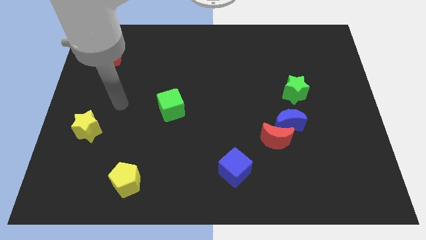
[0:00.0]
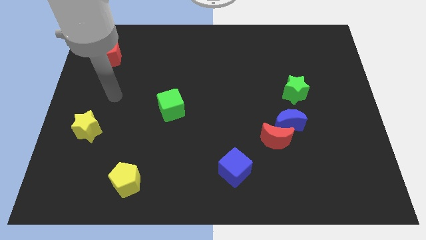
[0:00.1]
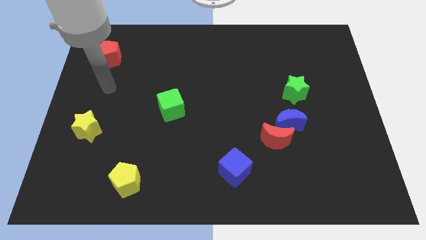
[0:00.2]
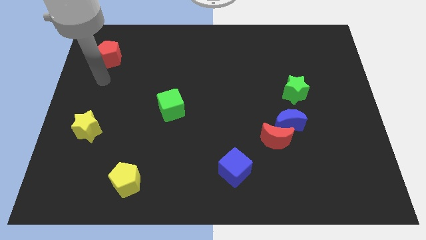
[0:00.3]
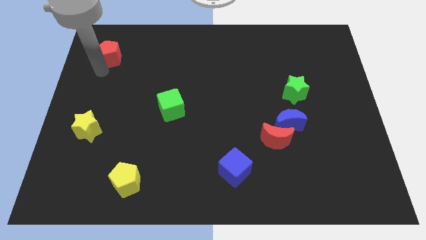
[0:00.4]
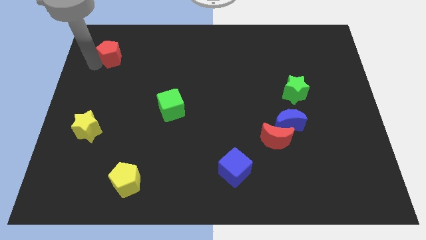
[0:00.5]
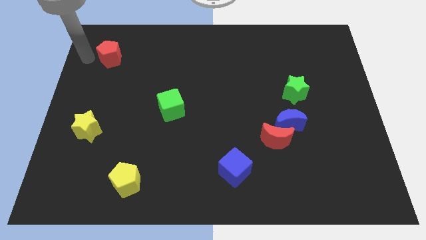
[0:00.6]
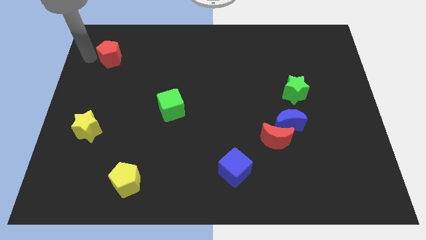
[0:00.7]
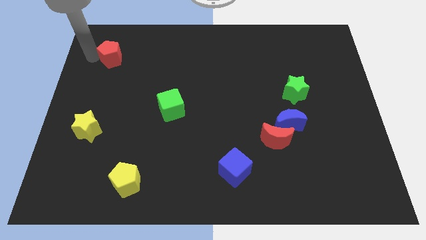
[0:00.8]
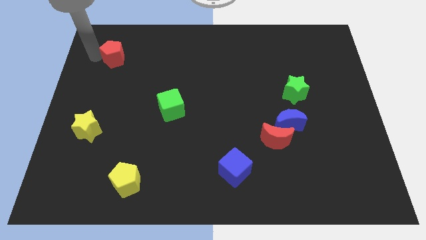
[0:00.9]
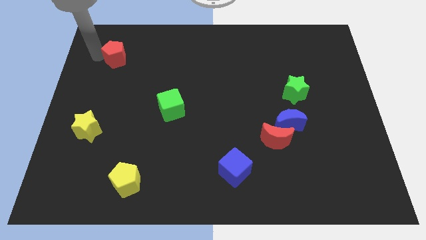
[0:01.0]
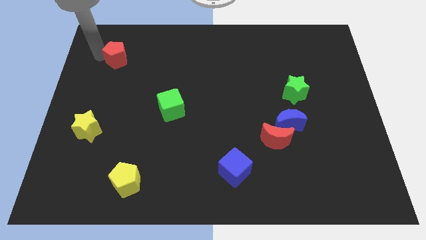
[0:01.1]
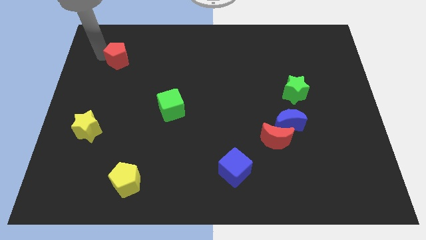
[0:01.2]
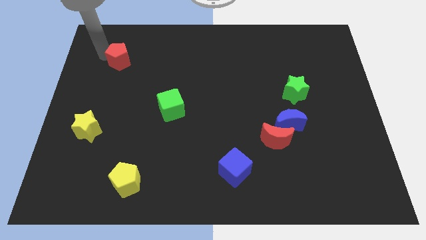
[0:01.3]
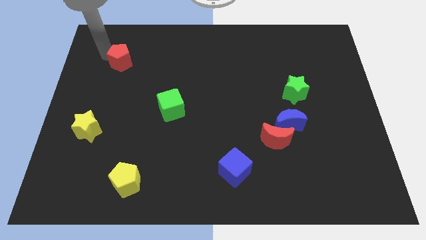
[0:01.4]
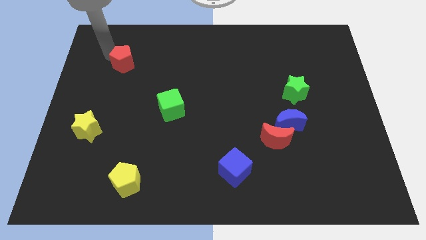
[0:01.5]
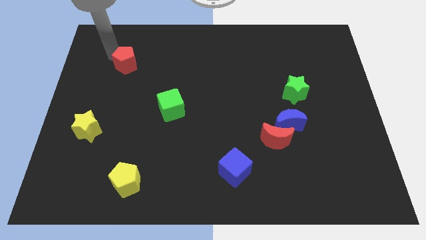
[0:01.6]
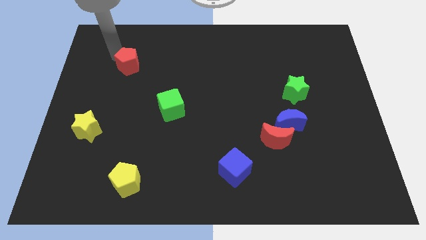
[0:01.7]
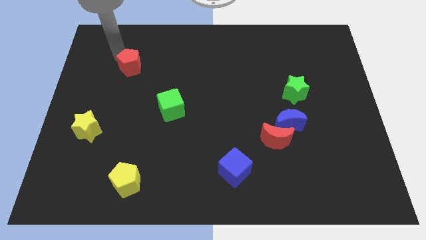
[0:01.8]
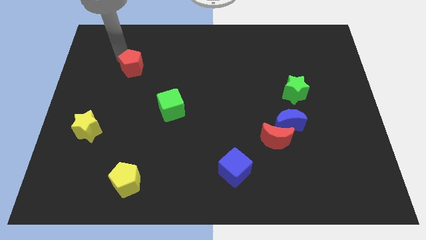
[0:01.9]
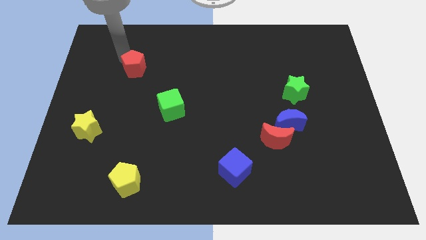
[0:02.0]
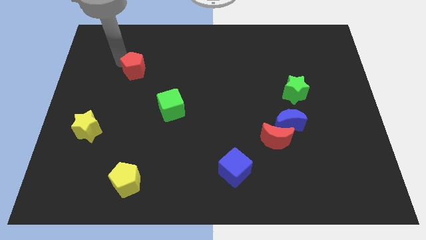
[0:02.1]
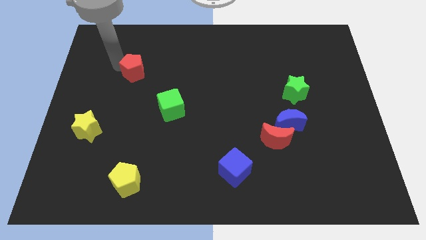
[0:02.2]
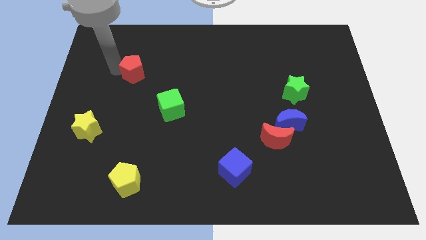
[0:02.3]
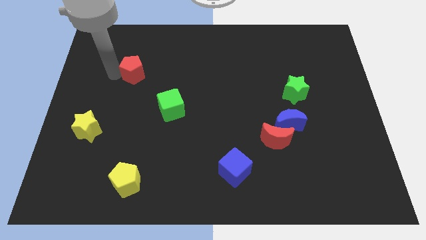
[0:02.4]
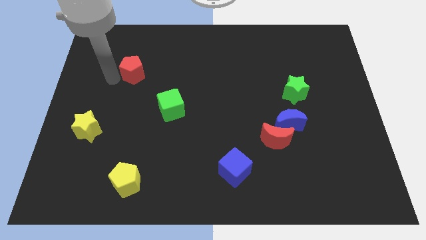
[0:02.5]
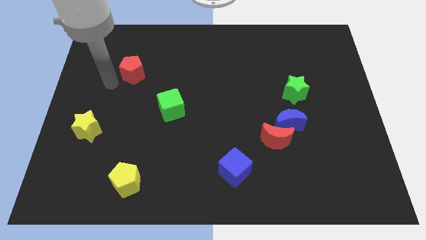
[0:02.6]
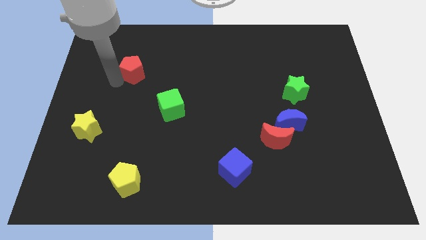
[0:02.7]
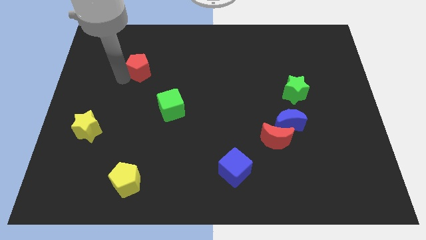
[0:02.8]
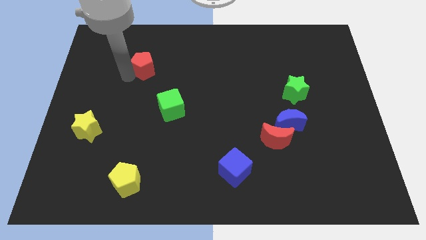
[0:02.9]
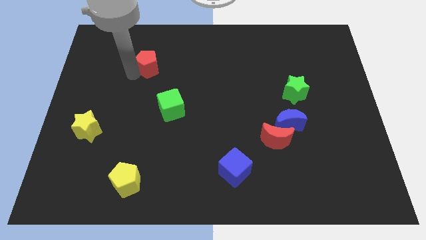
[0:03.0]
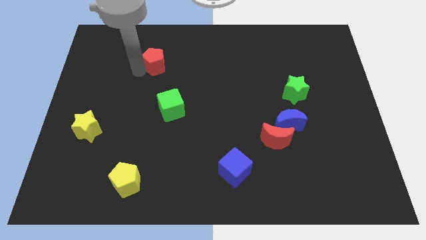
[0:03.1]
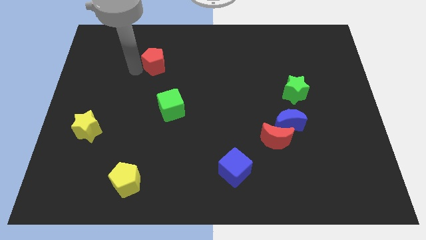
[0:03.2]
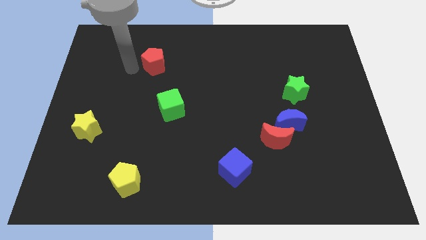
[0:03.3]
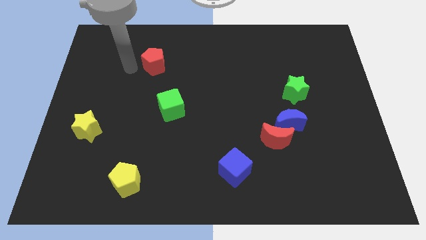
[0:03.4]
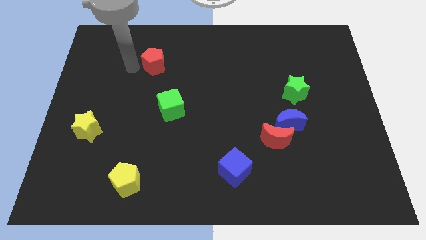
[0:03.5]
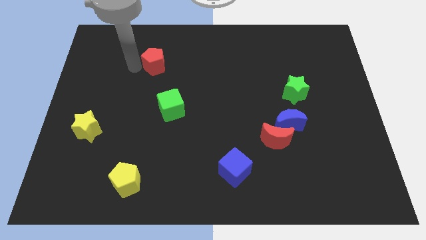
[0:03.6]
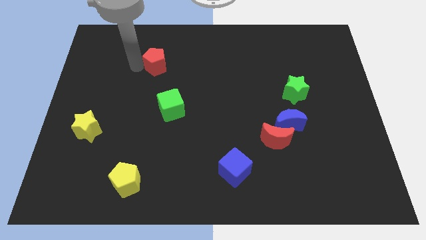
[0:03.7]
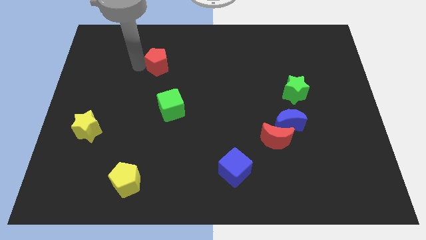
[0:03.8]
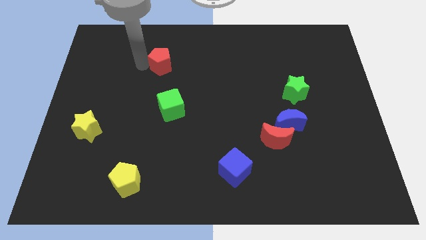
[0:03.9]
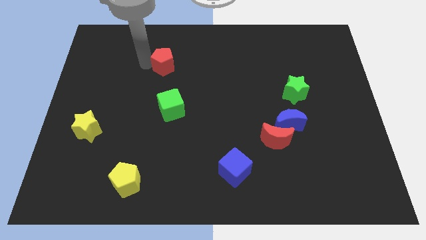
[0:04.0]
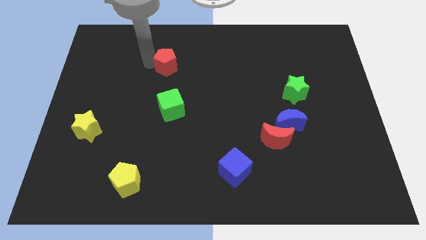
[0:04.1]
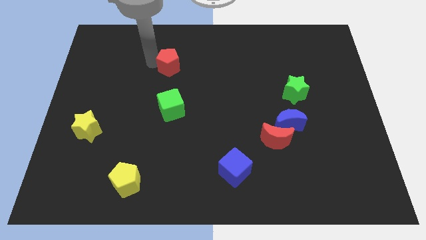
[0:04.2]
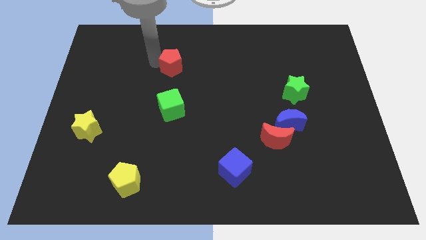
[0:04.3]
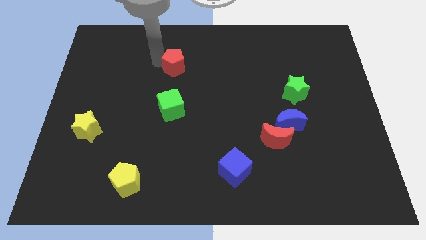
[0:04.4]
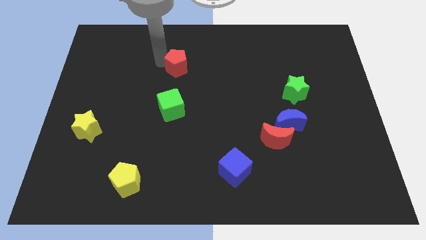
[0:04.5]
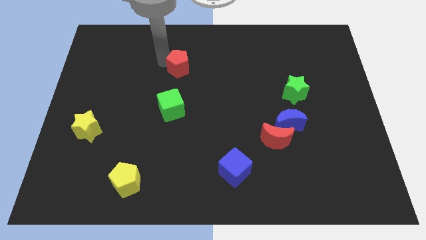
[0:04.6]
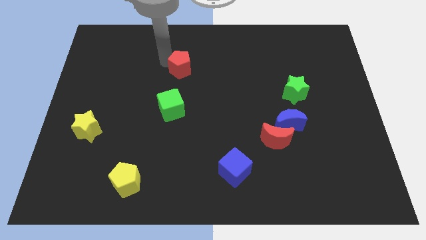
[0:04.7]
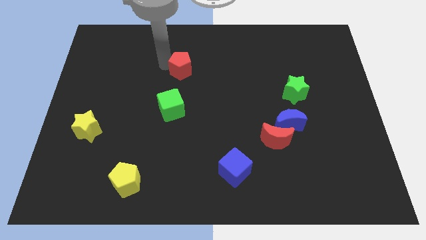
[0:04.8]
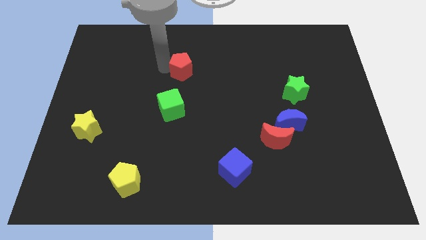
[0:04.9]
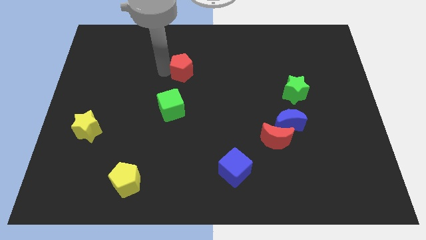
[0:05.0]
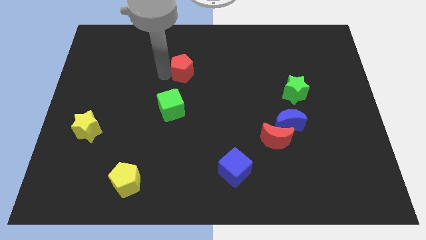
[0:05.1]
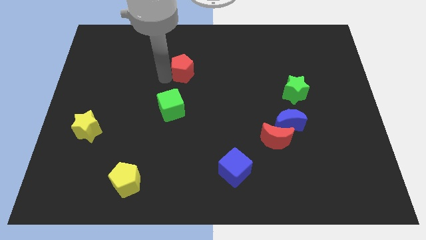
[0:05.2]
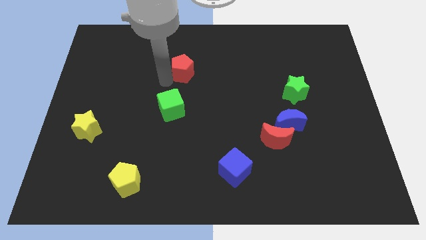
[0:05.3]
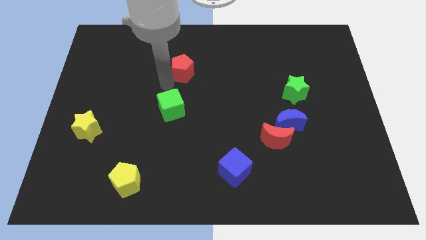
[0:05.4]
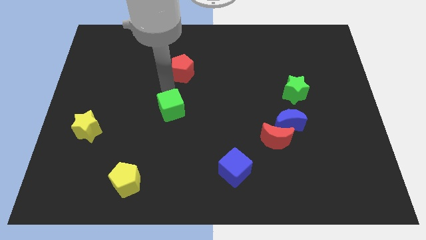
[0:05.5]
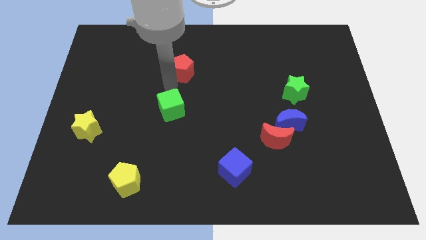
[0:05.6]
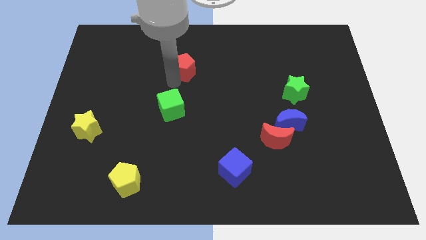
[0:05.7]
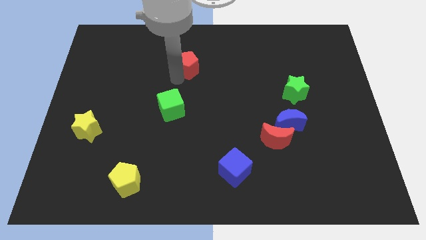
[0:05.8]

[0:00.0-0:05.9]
move the red pentagon to the right

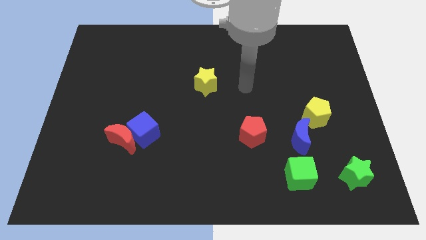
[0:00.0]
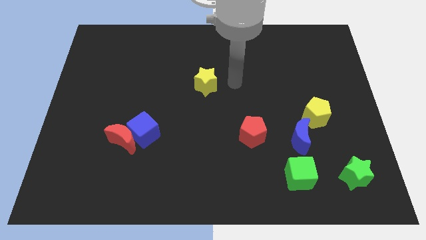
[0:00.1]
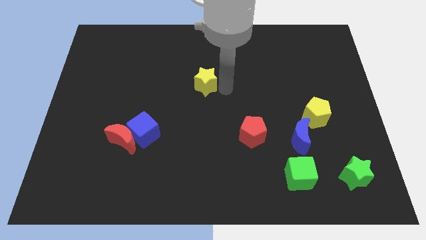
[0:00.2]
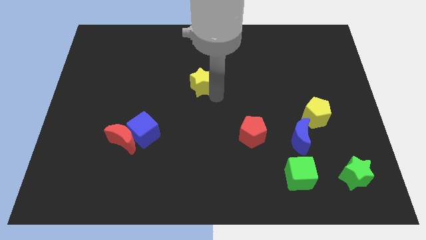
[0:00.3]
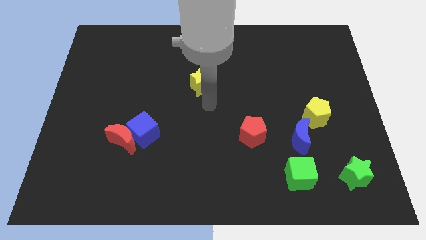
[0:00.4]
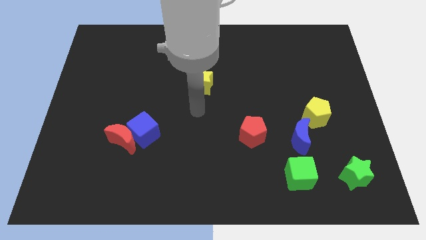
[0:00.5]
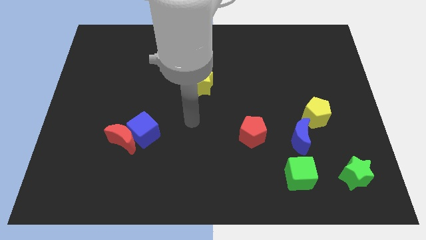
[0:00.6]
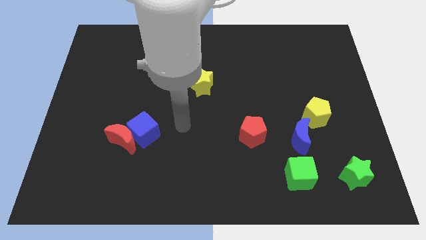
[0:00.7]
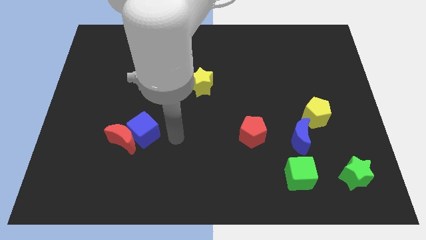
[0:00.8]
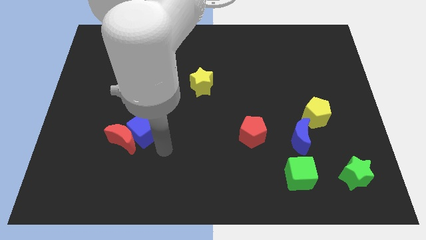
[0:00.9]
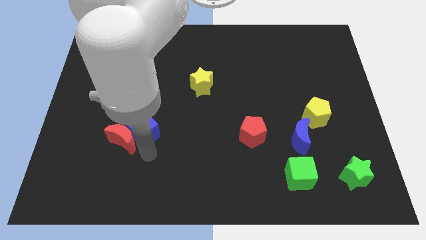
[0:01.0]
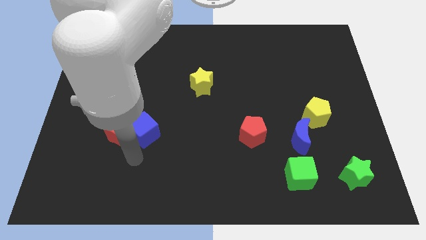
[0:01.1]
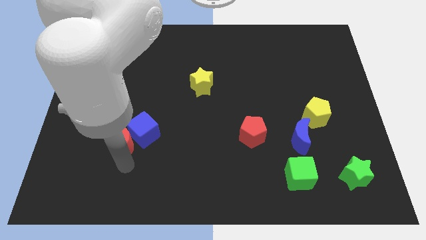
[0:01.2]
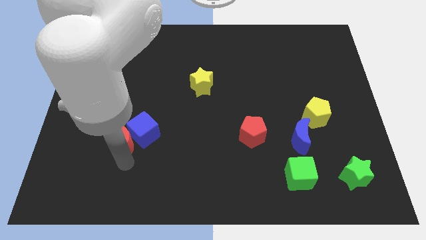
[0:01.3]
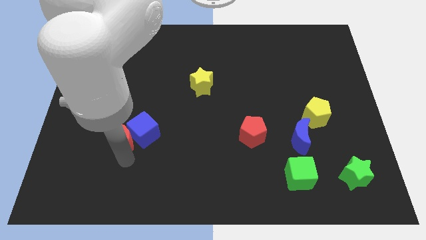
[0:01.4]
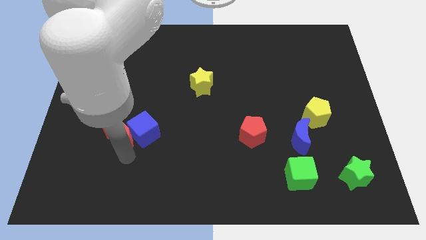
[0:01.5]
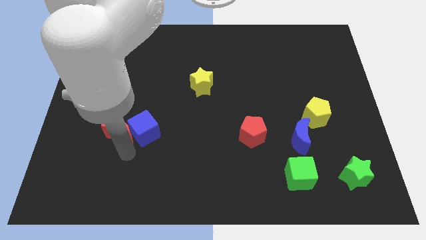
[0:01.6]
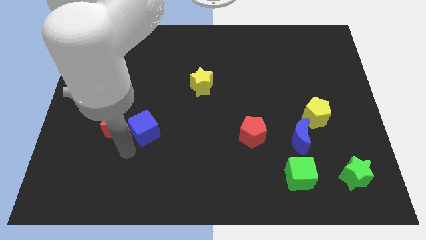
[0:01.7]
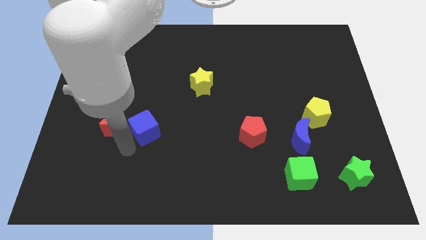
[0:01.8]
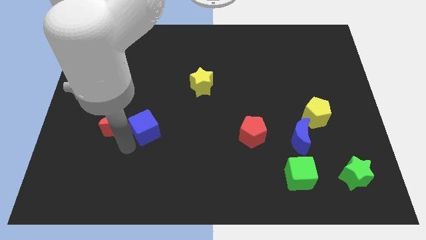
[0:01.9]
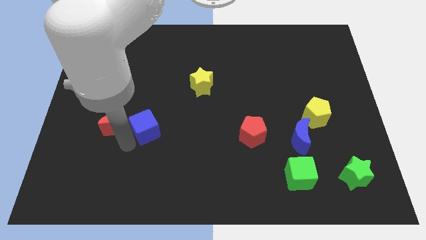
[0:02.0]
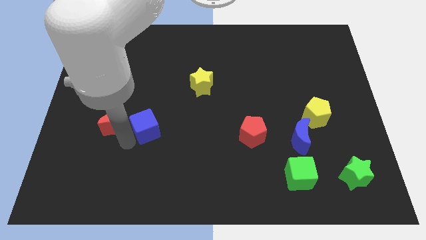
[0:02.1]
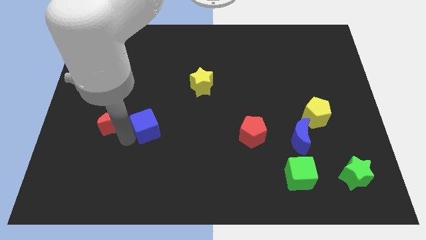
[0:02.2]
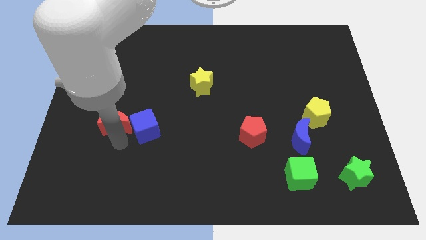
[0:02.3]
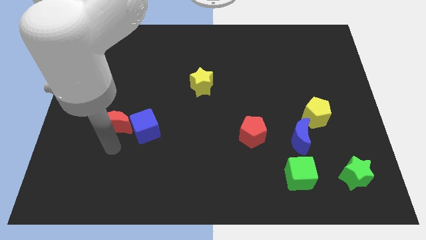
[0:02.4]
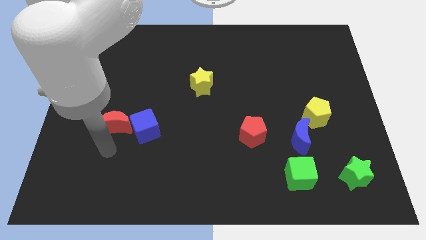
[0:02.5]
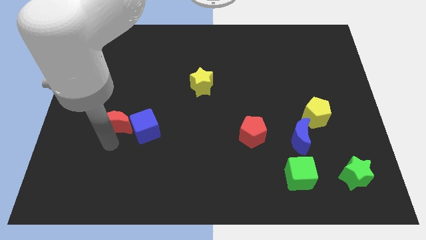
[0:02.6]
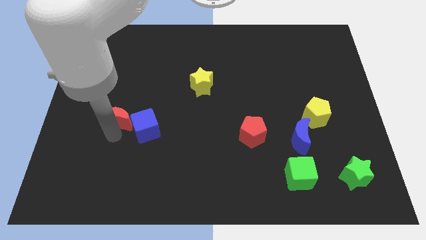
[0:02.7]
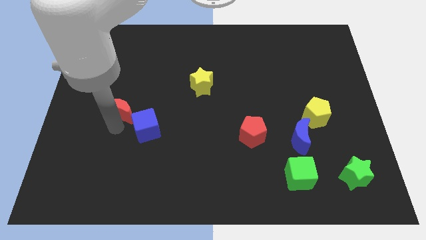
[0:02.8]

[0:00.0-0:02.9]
push the red moon slightly upwards
